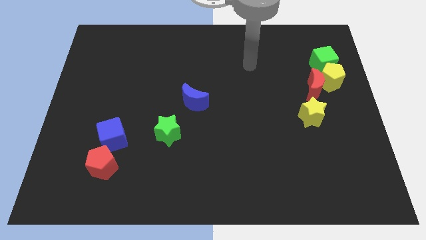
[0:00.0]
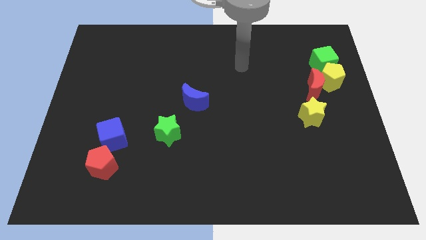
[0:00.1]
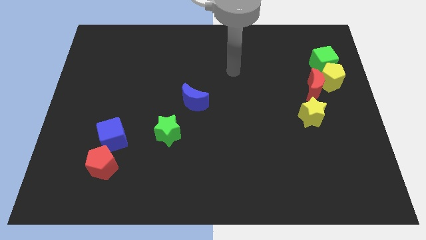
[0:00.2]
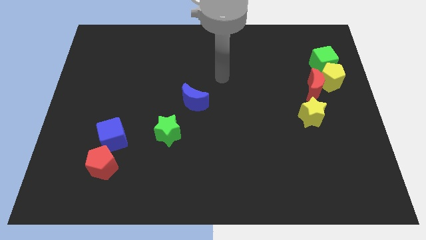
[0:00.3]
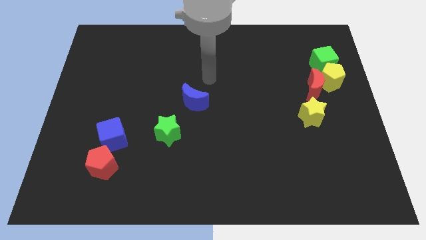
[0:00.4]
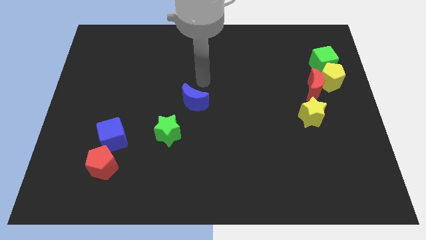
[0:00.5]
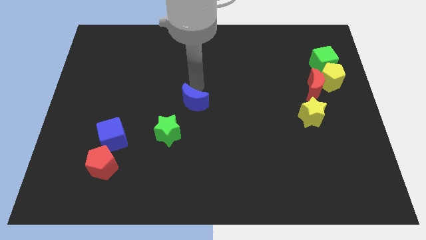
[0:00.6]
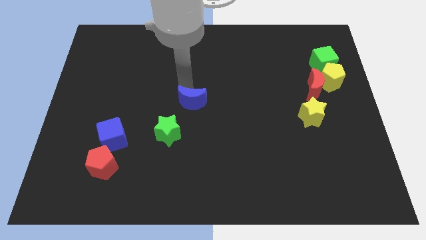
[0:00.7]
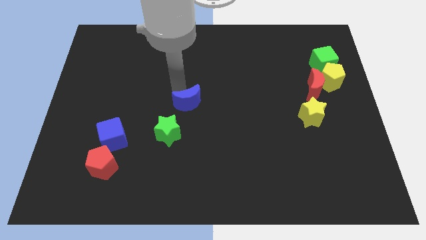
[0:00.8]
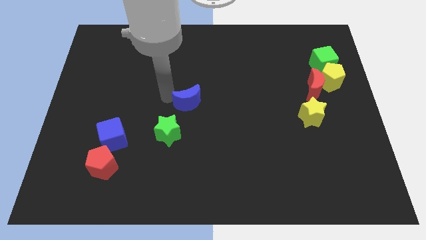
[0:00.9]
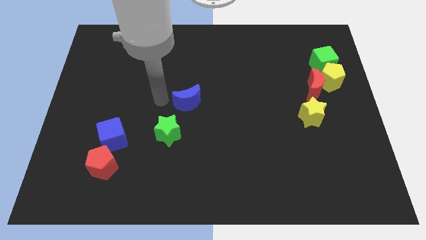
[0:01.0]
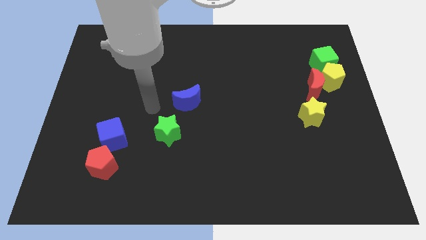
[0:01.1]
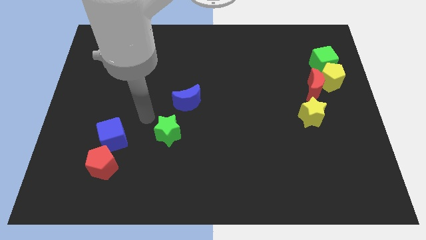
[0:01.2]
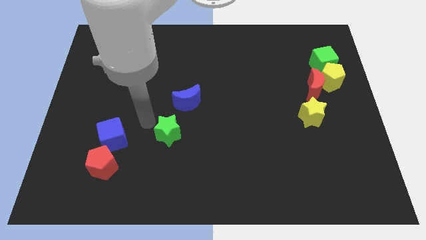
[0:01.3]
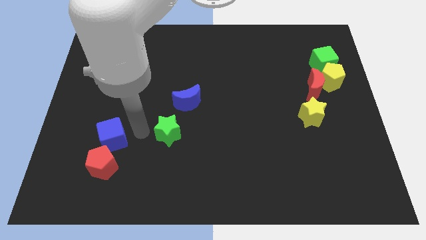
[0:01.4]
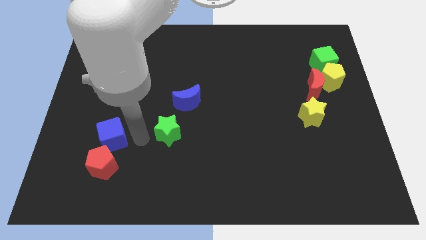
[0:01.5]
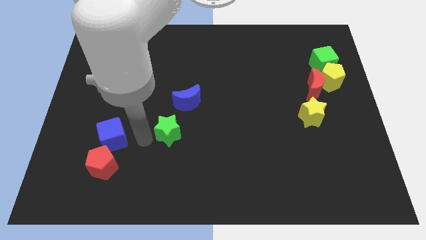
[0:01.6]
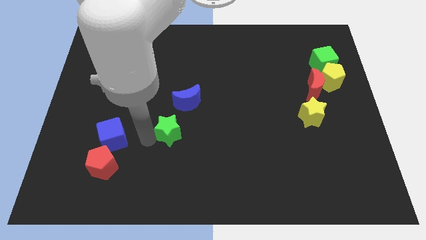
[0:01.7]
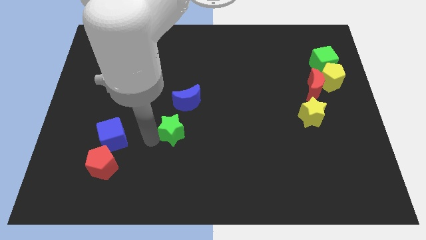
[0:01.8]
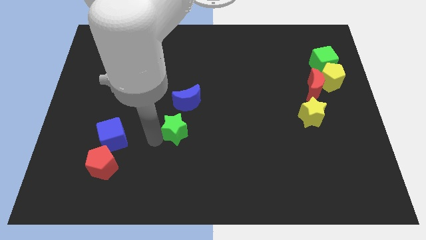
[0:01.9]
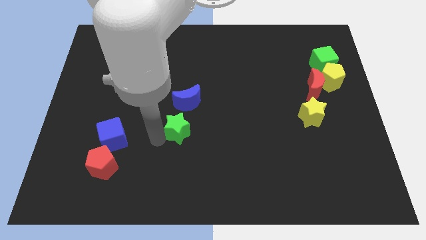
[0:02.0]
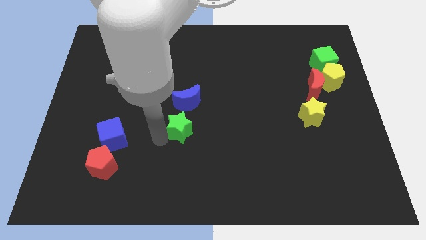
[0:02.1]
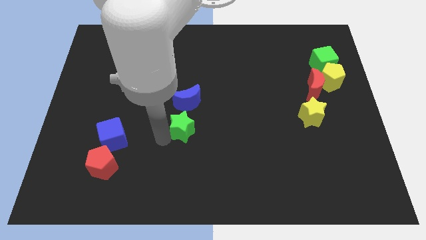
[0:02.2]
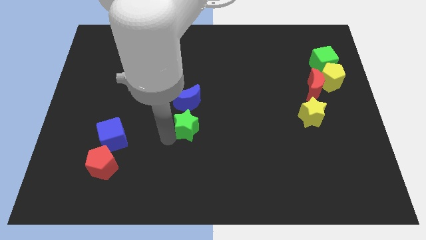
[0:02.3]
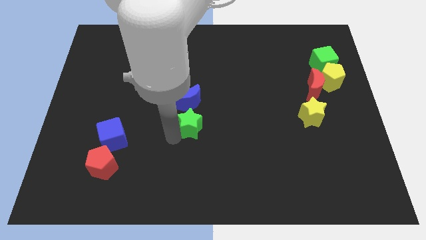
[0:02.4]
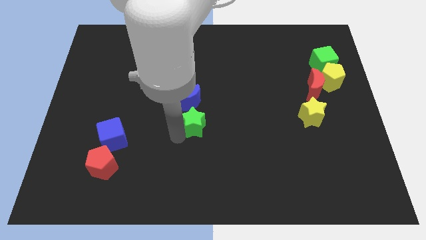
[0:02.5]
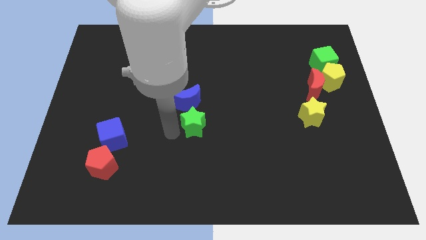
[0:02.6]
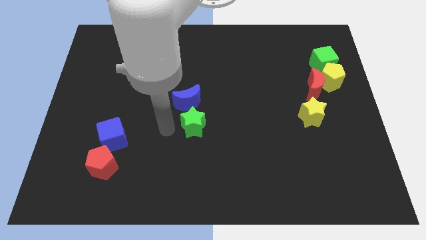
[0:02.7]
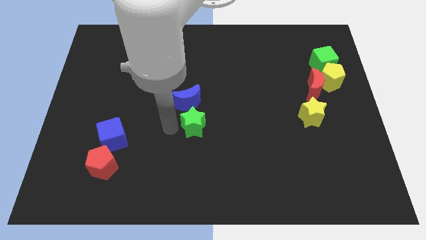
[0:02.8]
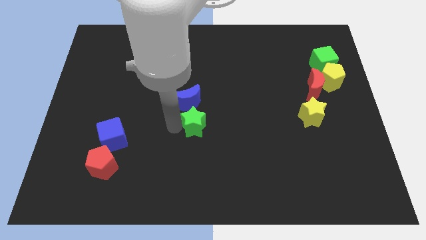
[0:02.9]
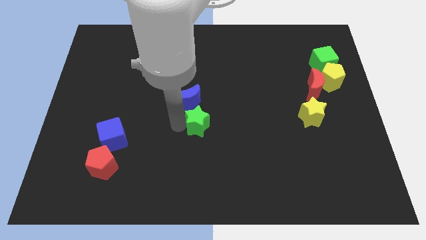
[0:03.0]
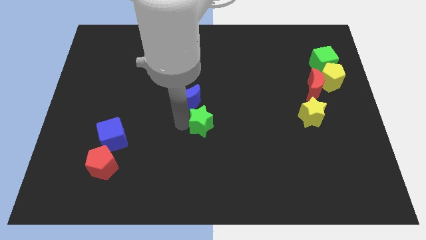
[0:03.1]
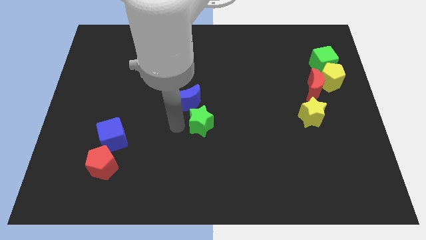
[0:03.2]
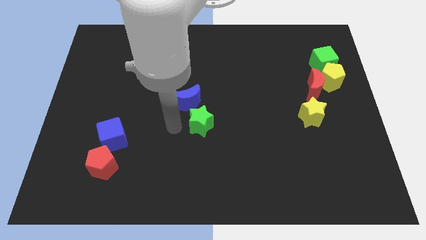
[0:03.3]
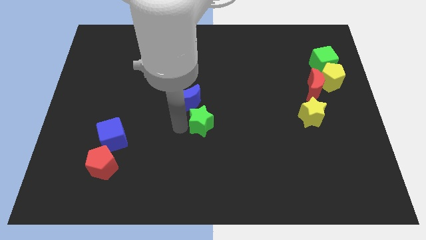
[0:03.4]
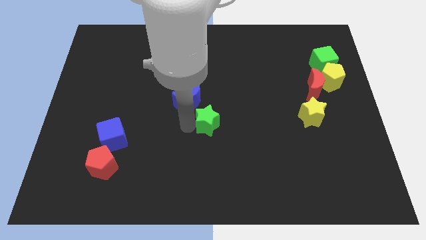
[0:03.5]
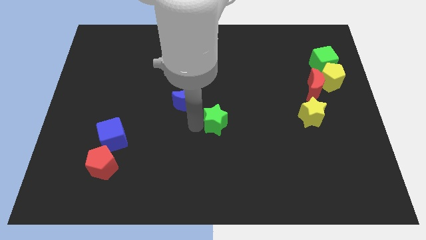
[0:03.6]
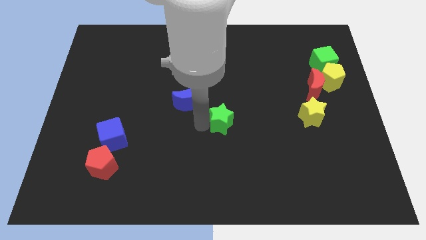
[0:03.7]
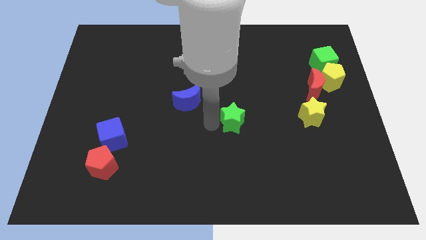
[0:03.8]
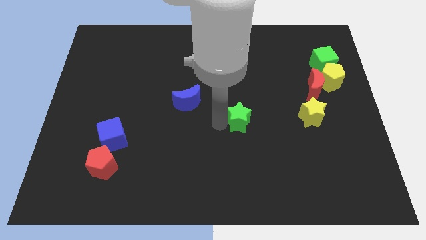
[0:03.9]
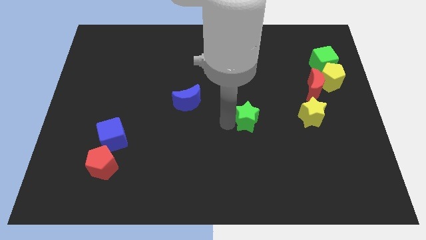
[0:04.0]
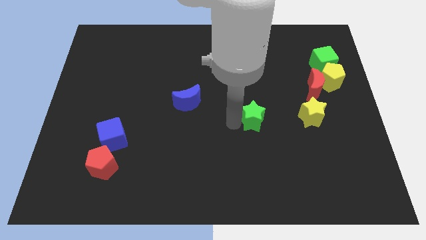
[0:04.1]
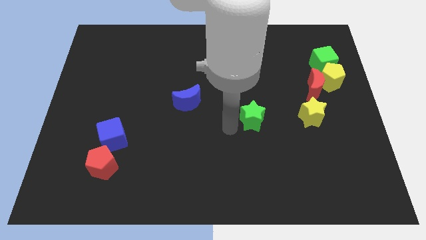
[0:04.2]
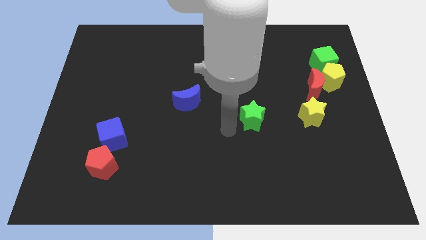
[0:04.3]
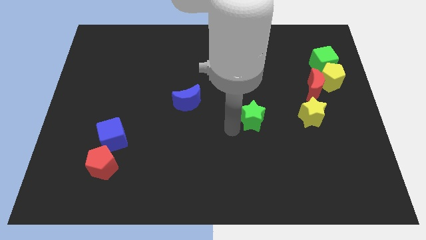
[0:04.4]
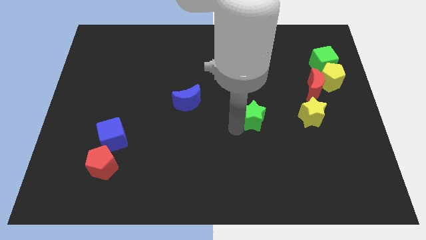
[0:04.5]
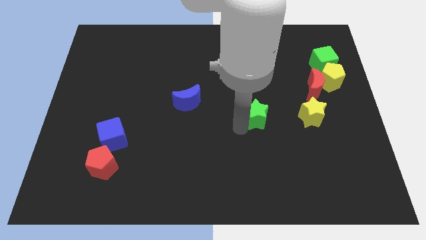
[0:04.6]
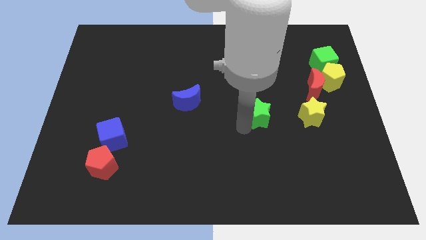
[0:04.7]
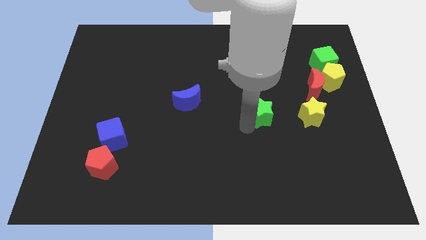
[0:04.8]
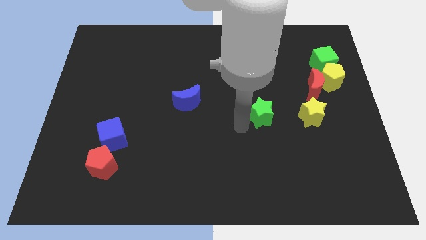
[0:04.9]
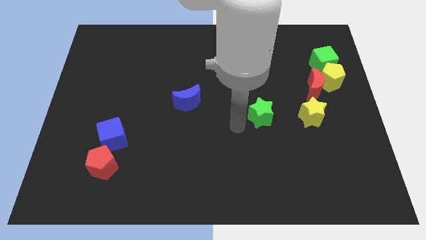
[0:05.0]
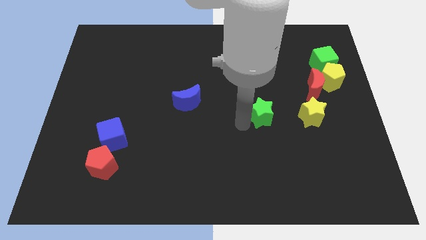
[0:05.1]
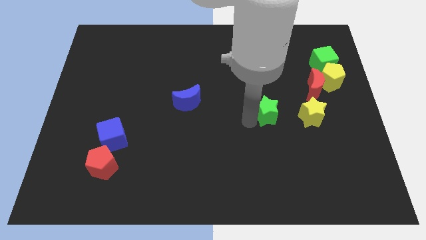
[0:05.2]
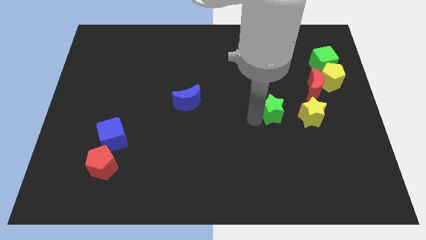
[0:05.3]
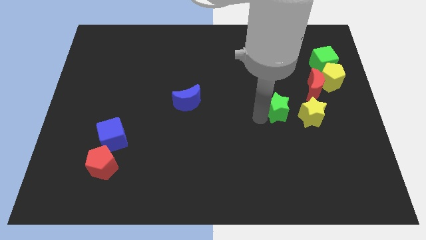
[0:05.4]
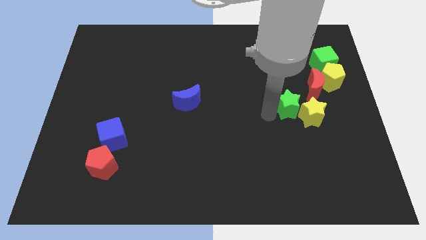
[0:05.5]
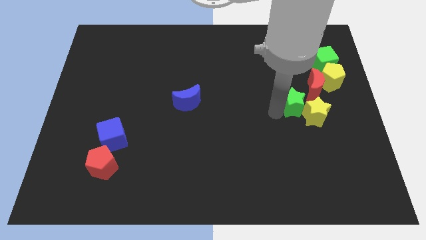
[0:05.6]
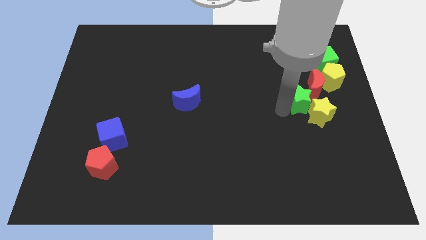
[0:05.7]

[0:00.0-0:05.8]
push the green star to the bottom left of the yellow pentagon

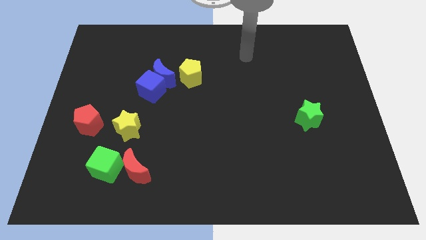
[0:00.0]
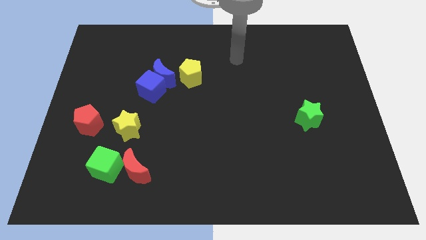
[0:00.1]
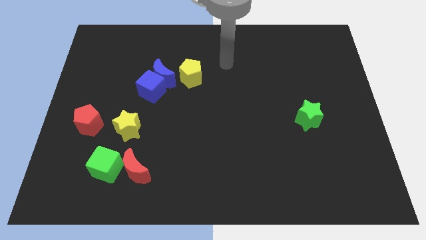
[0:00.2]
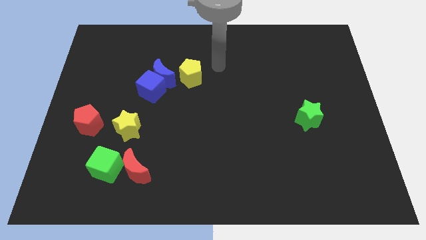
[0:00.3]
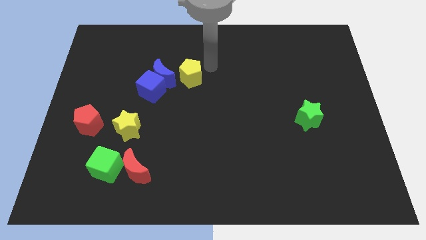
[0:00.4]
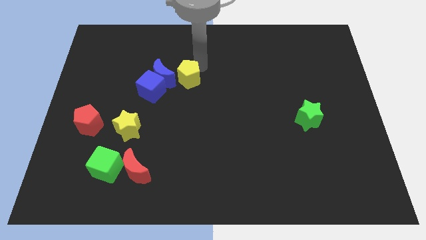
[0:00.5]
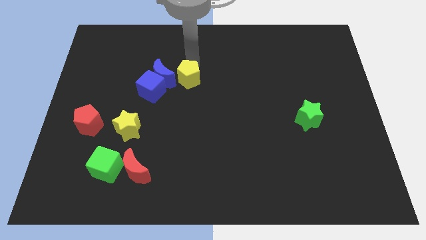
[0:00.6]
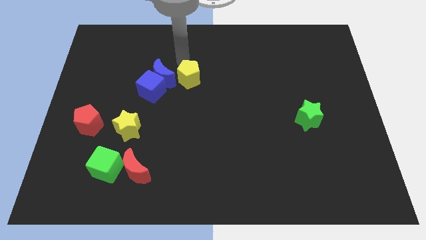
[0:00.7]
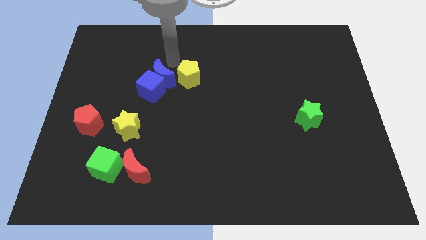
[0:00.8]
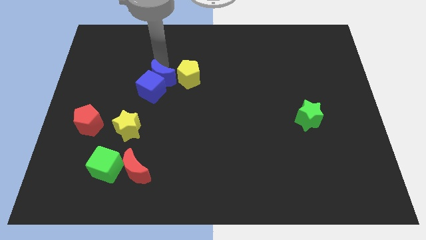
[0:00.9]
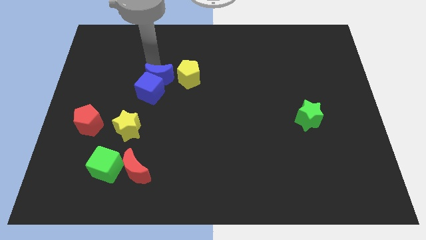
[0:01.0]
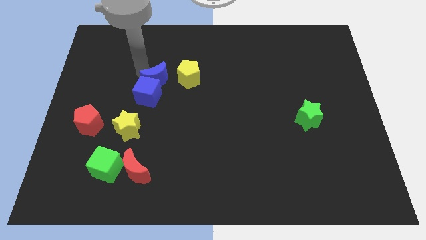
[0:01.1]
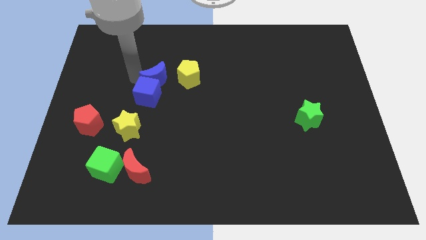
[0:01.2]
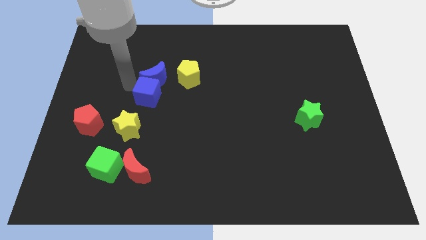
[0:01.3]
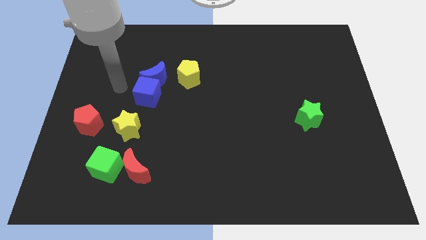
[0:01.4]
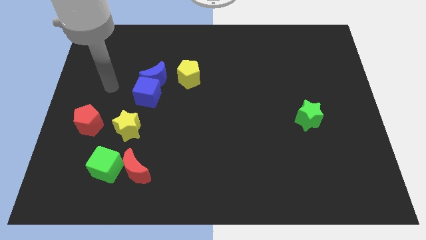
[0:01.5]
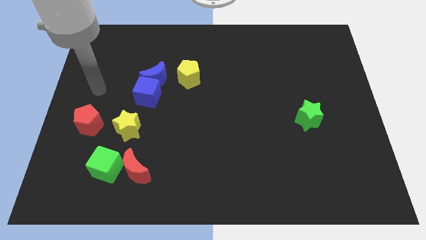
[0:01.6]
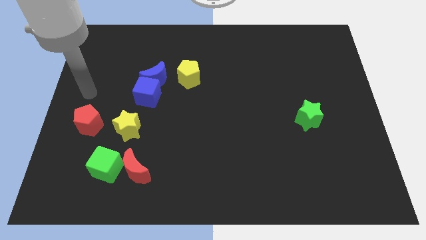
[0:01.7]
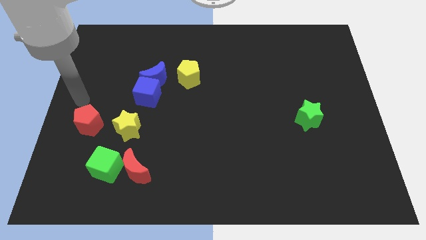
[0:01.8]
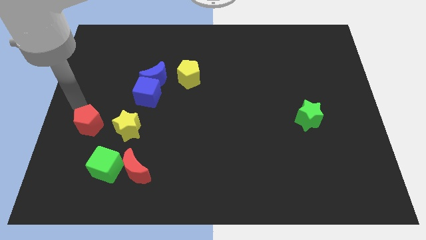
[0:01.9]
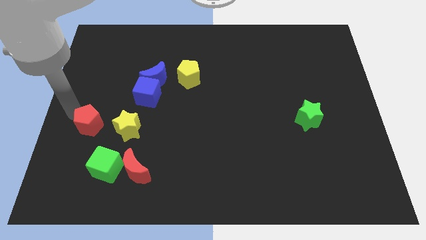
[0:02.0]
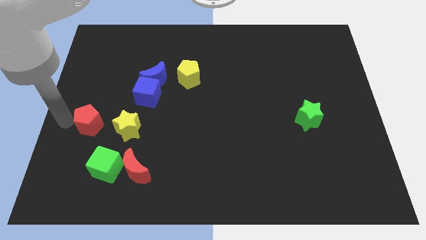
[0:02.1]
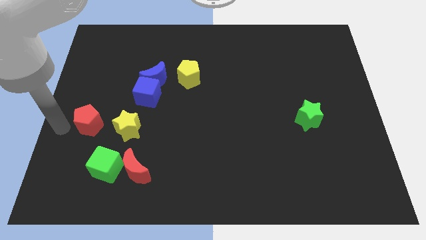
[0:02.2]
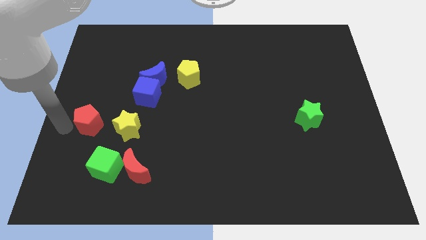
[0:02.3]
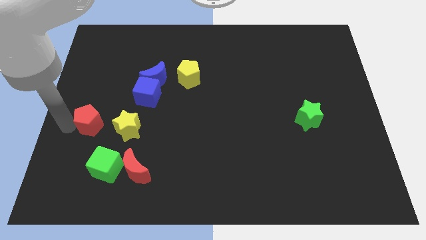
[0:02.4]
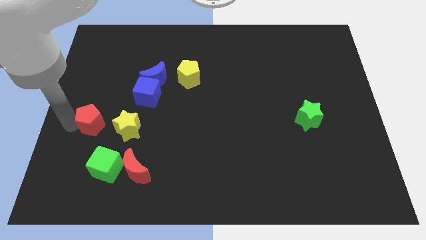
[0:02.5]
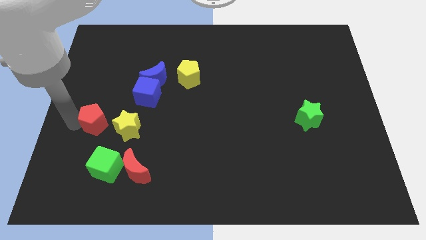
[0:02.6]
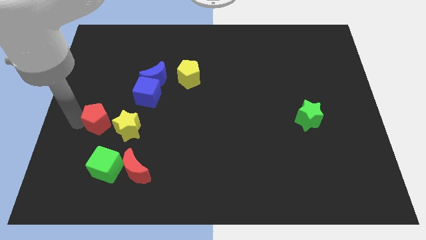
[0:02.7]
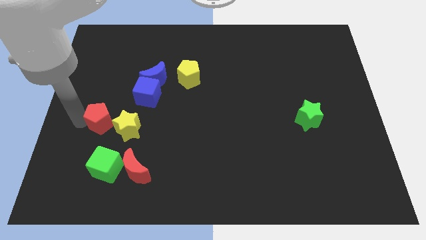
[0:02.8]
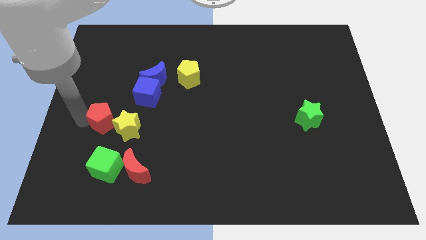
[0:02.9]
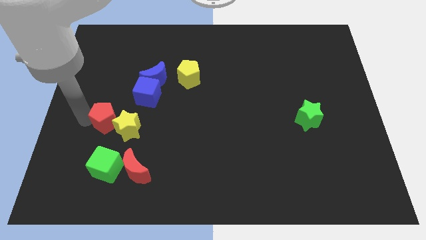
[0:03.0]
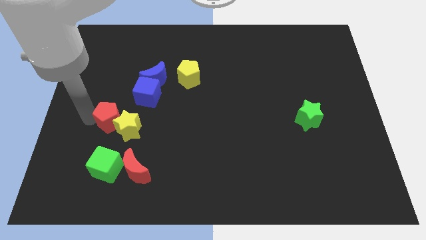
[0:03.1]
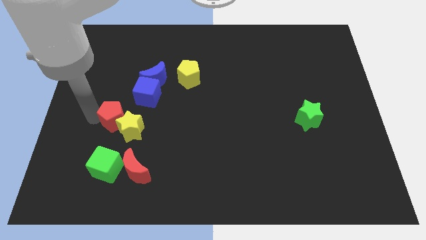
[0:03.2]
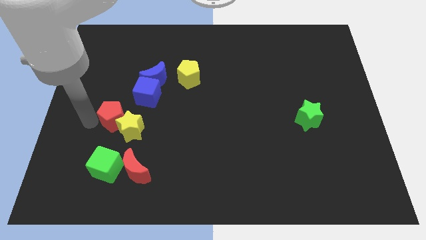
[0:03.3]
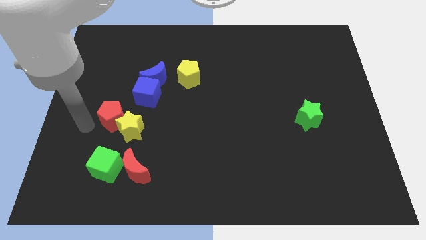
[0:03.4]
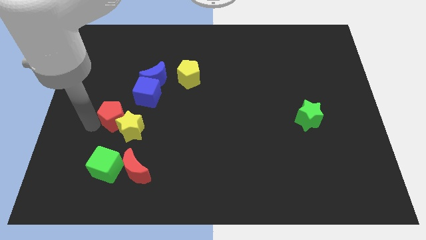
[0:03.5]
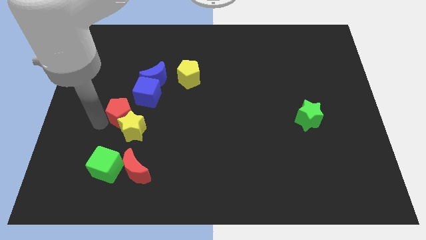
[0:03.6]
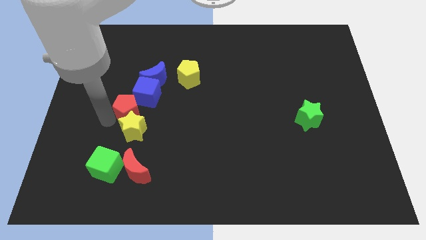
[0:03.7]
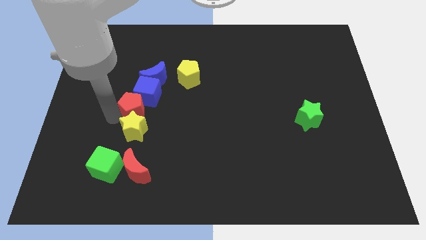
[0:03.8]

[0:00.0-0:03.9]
put the red pentagon to the bottom side of the blue moon
